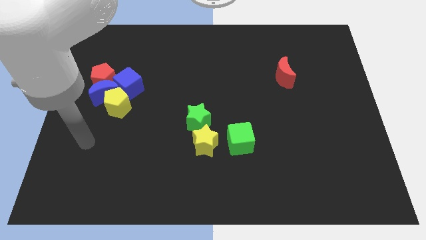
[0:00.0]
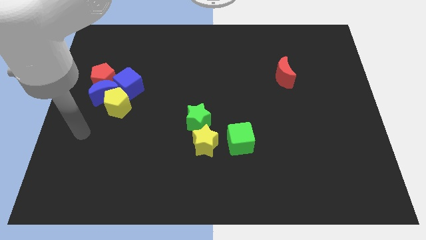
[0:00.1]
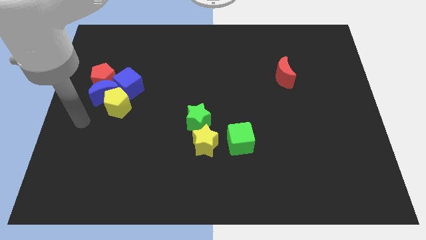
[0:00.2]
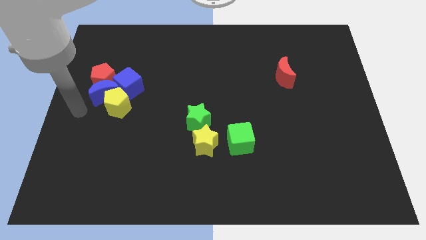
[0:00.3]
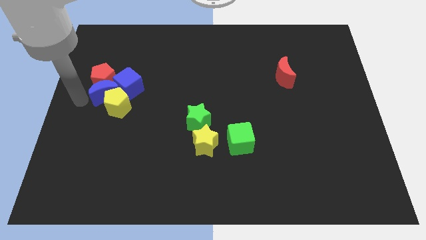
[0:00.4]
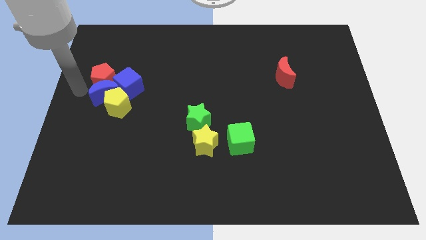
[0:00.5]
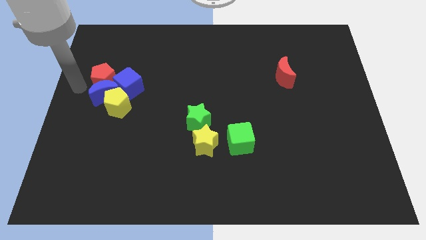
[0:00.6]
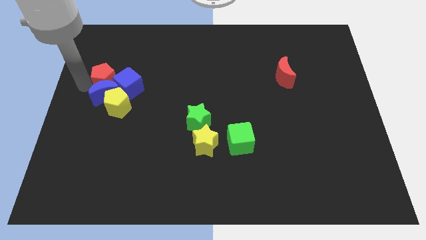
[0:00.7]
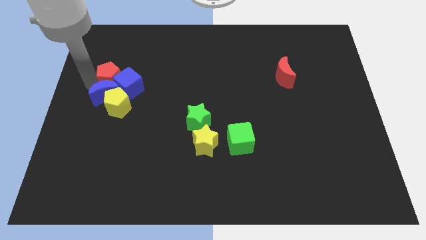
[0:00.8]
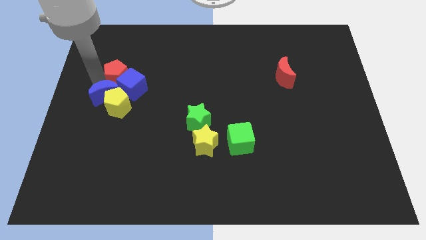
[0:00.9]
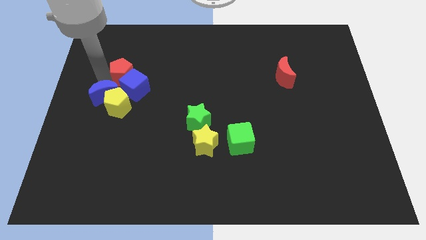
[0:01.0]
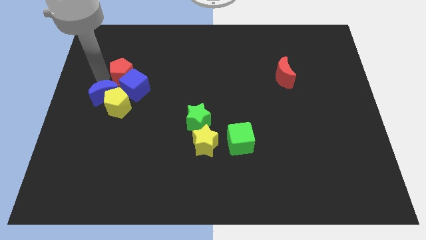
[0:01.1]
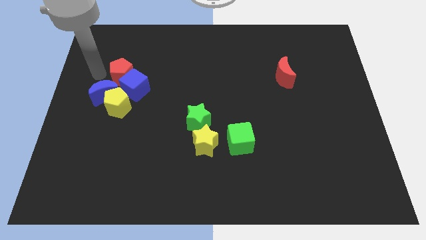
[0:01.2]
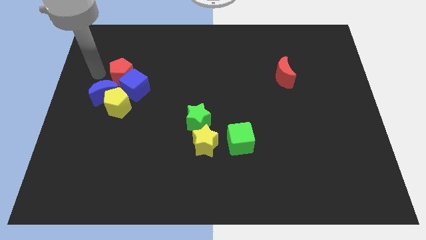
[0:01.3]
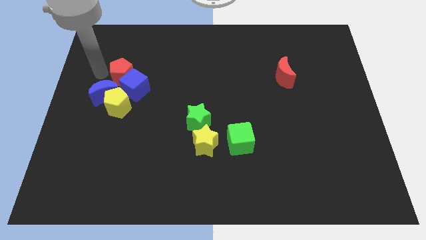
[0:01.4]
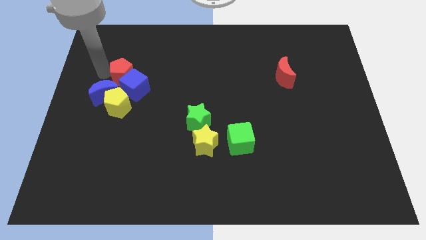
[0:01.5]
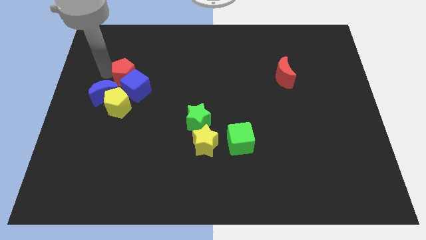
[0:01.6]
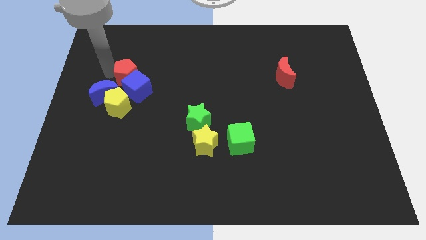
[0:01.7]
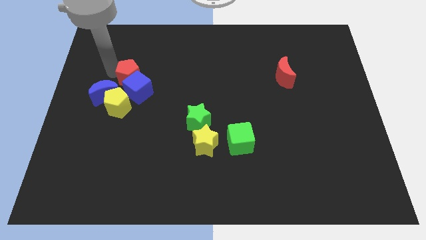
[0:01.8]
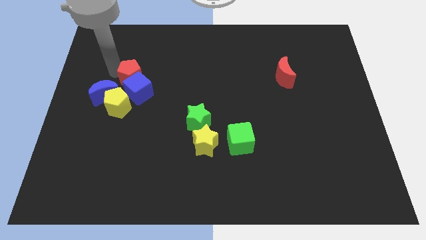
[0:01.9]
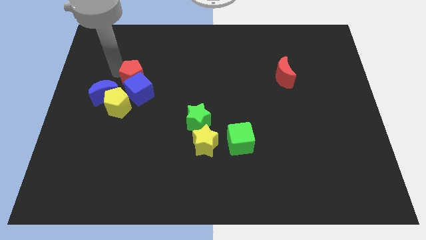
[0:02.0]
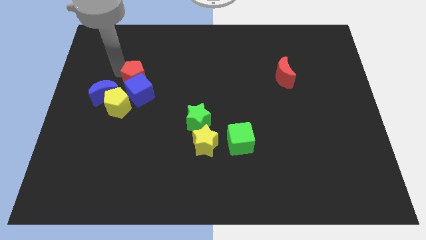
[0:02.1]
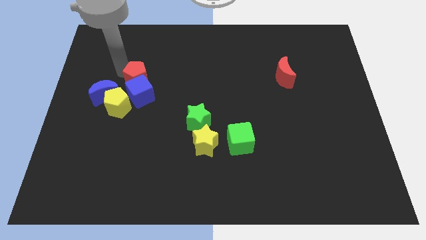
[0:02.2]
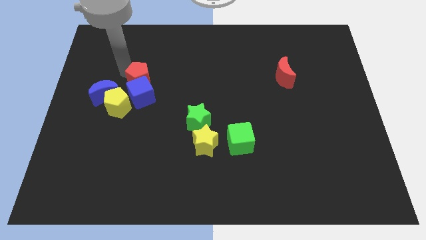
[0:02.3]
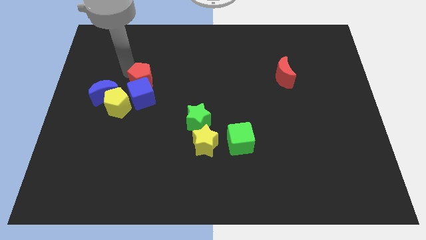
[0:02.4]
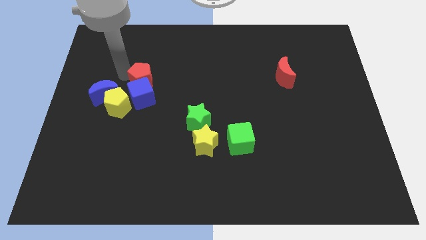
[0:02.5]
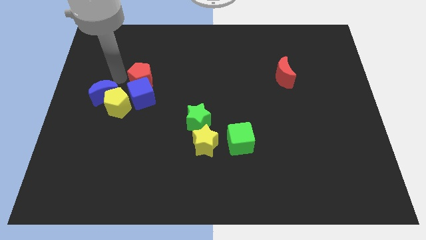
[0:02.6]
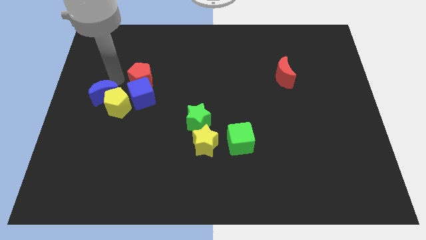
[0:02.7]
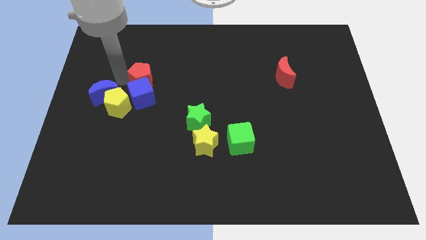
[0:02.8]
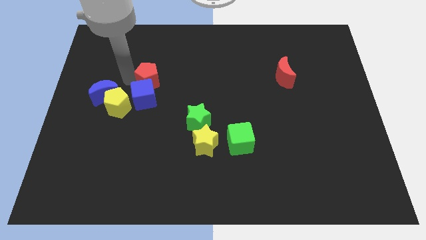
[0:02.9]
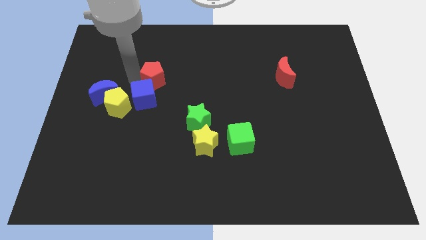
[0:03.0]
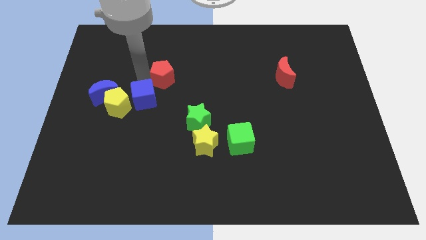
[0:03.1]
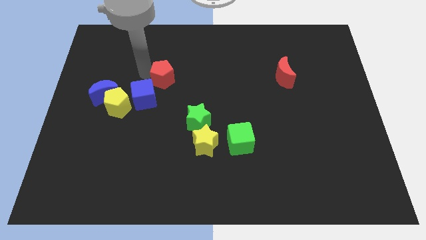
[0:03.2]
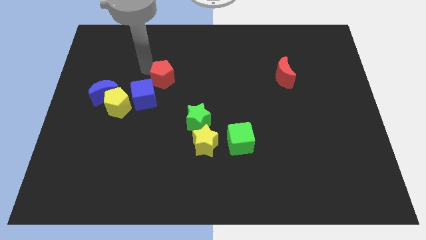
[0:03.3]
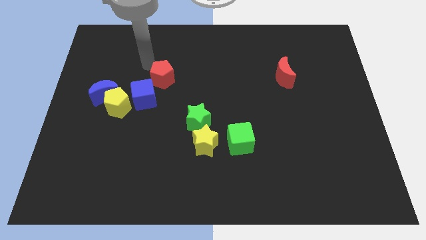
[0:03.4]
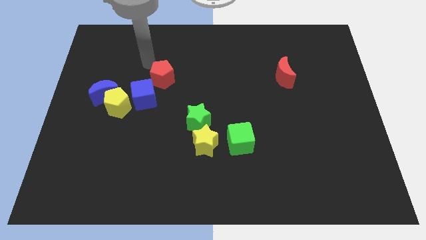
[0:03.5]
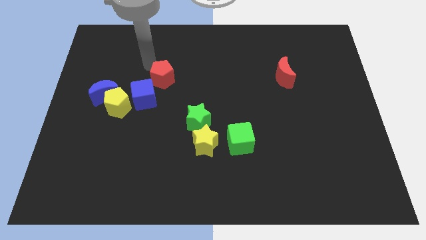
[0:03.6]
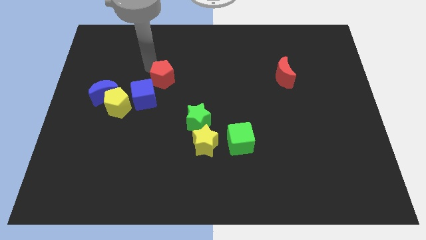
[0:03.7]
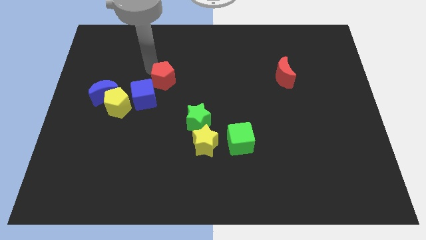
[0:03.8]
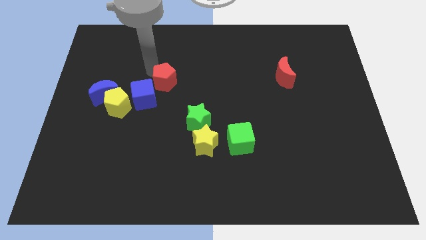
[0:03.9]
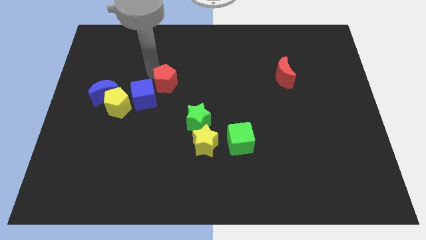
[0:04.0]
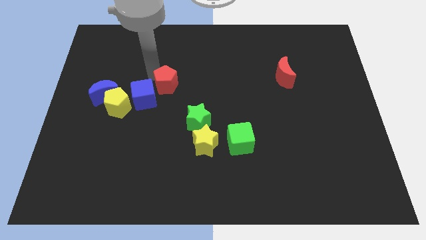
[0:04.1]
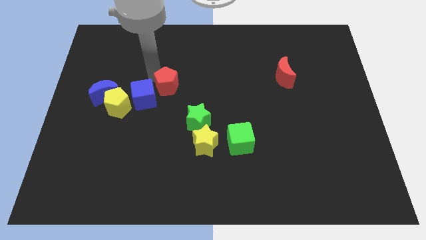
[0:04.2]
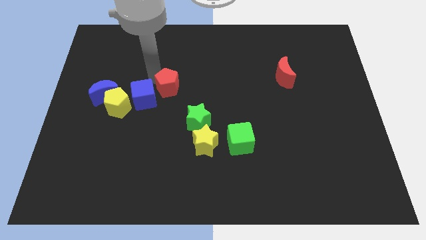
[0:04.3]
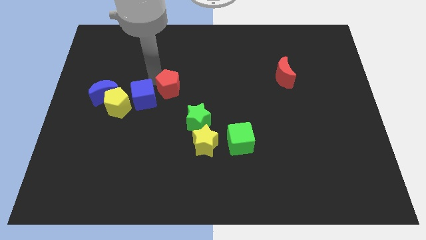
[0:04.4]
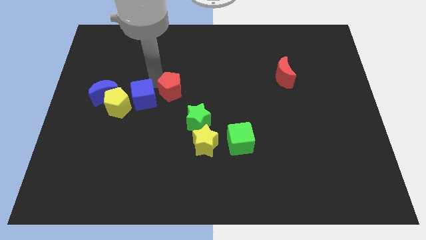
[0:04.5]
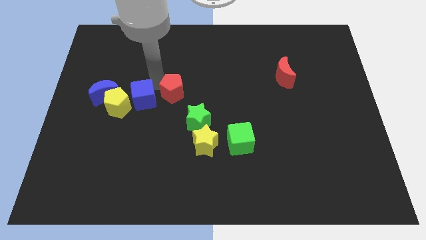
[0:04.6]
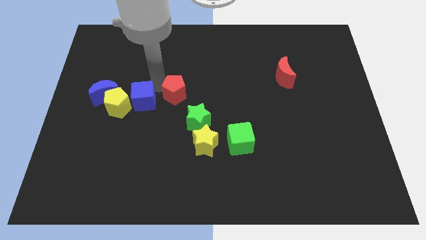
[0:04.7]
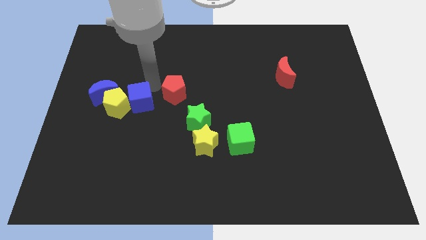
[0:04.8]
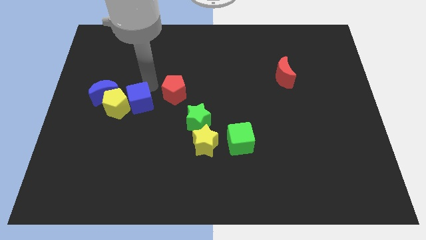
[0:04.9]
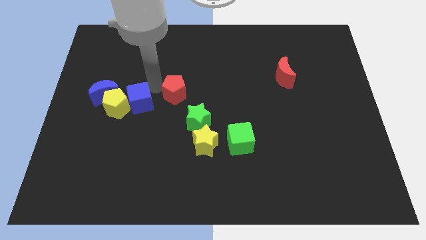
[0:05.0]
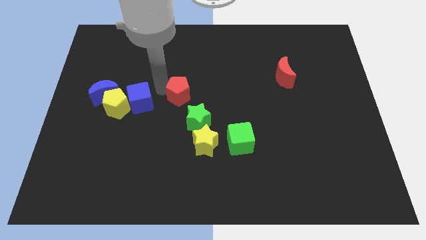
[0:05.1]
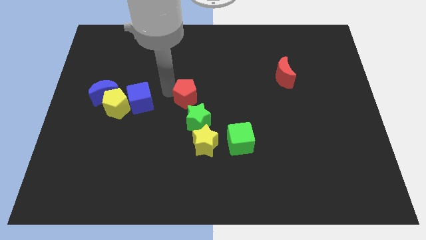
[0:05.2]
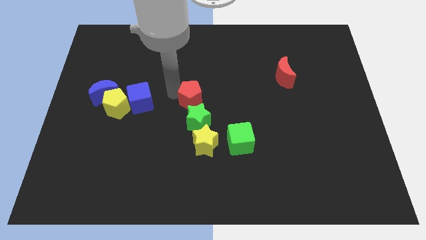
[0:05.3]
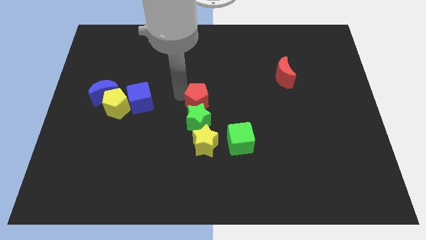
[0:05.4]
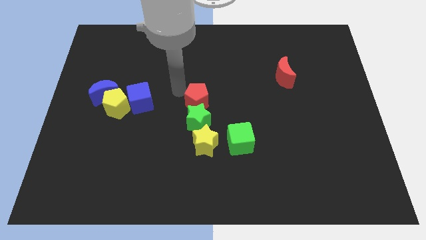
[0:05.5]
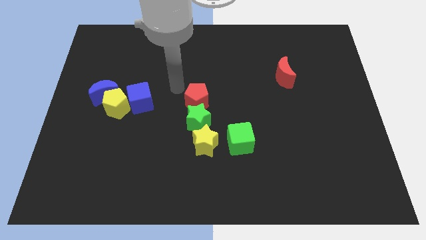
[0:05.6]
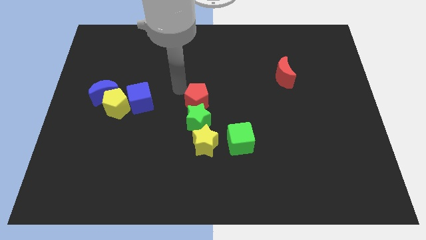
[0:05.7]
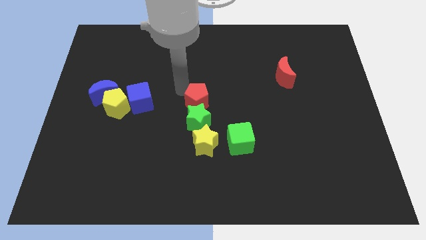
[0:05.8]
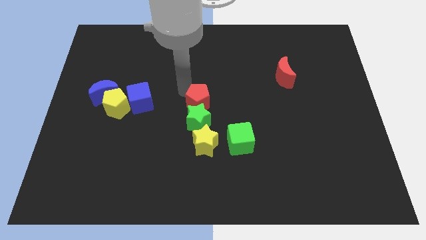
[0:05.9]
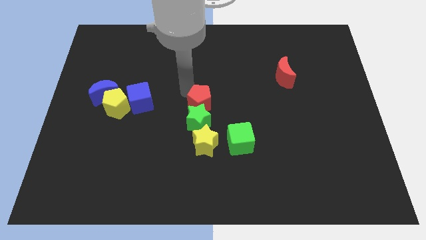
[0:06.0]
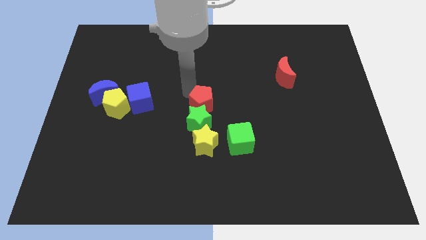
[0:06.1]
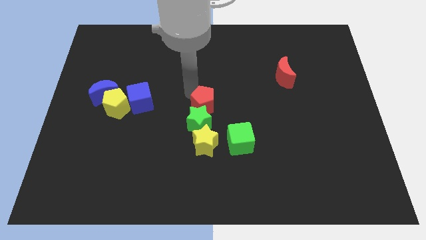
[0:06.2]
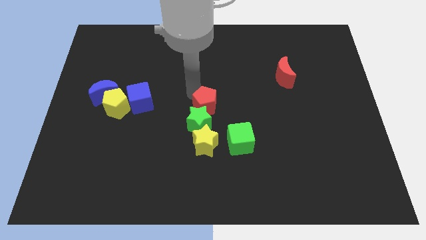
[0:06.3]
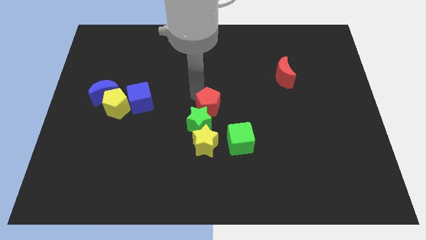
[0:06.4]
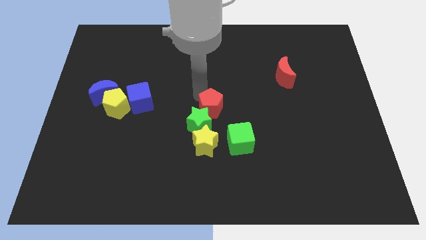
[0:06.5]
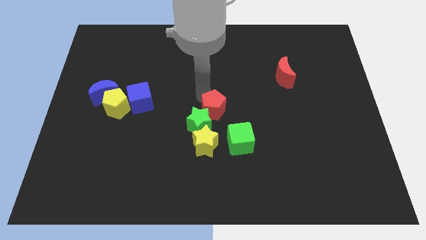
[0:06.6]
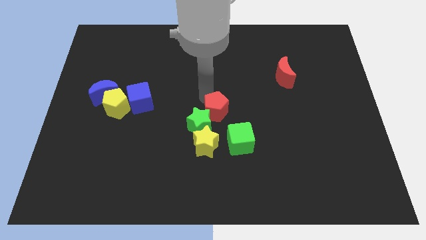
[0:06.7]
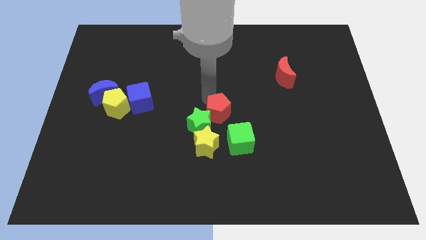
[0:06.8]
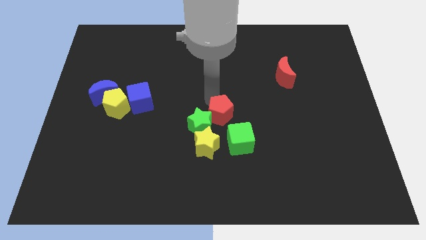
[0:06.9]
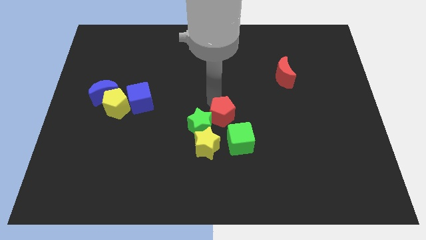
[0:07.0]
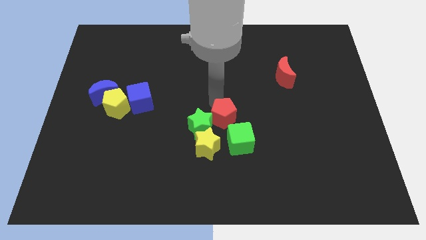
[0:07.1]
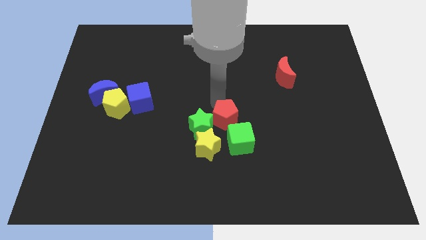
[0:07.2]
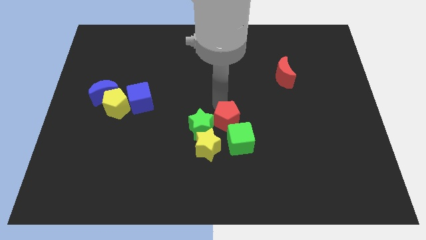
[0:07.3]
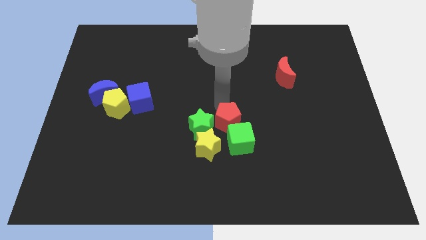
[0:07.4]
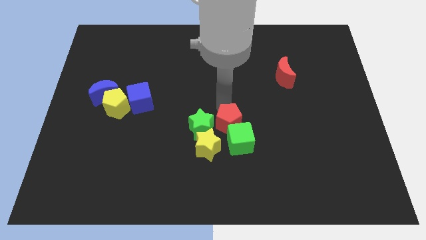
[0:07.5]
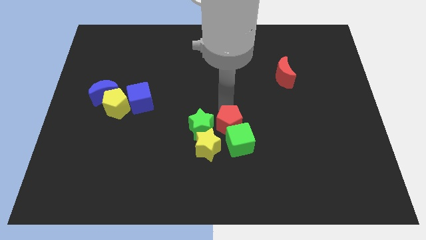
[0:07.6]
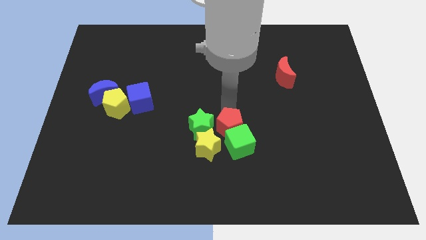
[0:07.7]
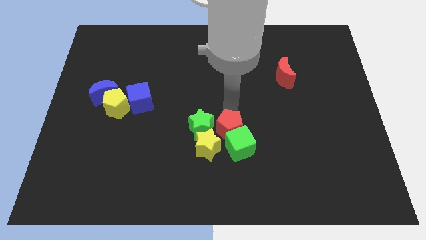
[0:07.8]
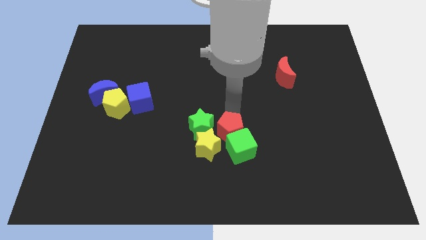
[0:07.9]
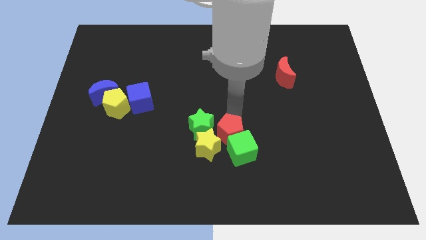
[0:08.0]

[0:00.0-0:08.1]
push the red pentagon towards the yellow star
